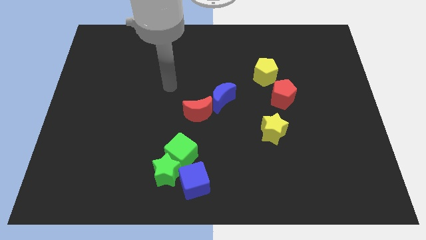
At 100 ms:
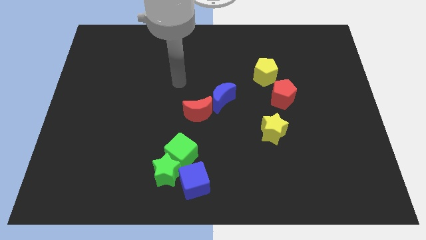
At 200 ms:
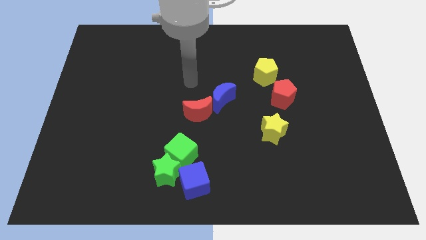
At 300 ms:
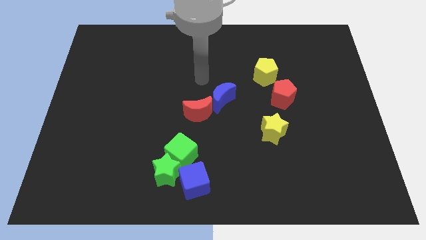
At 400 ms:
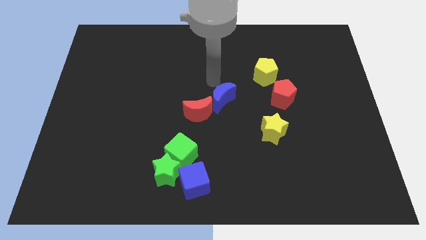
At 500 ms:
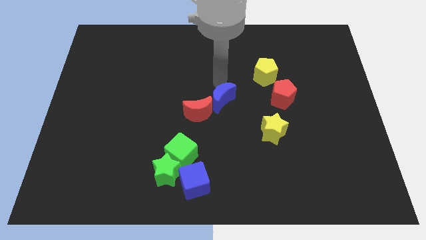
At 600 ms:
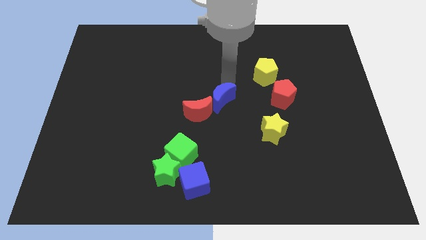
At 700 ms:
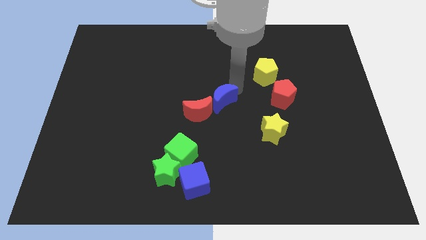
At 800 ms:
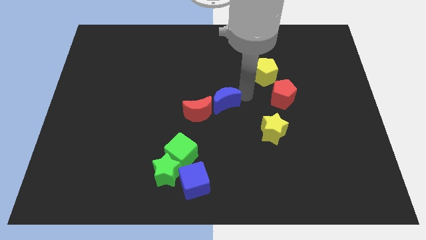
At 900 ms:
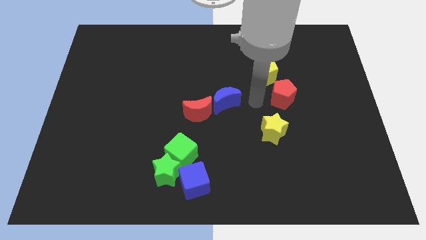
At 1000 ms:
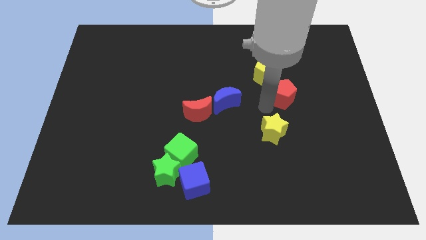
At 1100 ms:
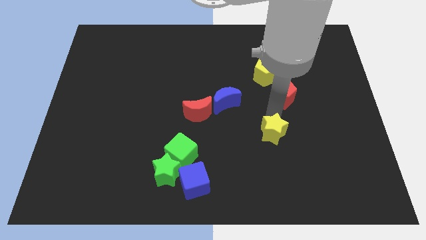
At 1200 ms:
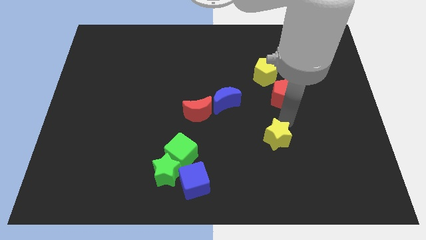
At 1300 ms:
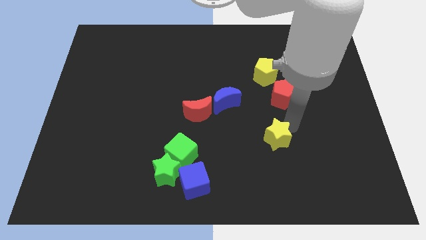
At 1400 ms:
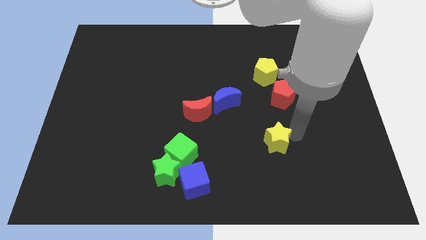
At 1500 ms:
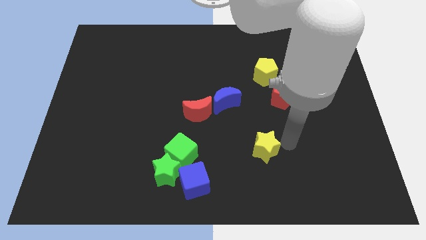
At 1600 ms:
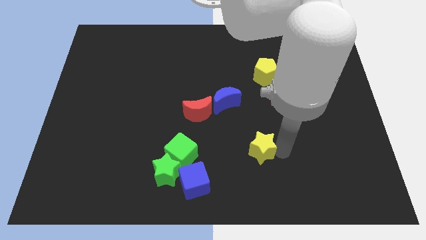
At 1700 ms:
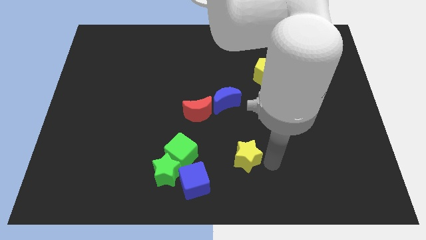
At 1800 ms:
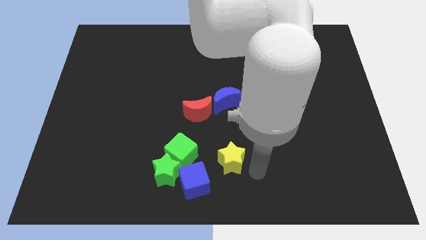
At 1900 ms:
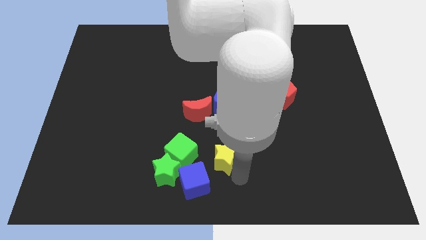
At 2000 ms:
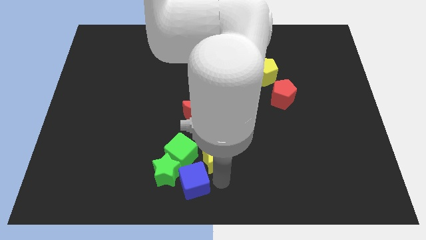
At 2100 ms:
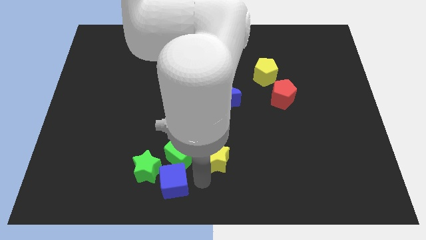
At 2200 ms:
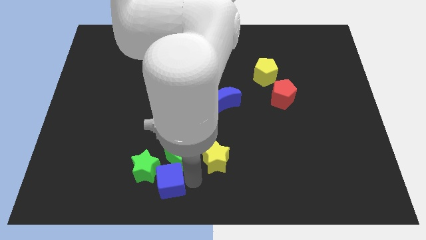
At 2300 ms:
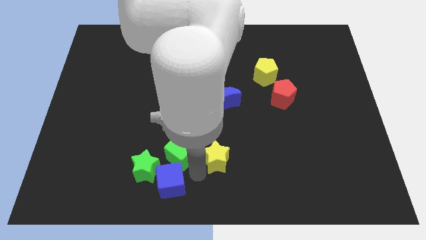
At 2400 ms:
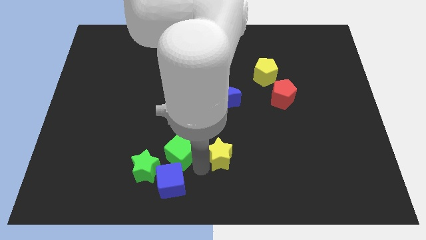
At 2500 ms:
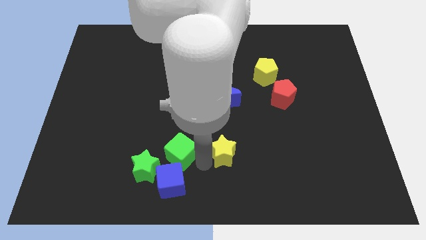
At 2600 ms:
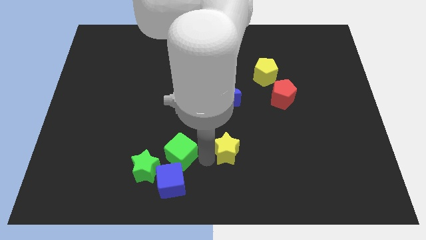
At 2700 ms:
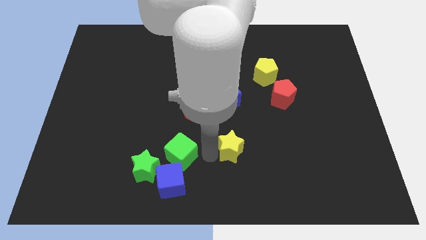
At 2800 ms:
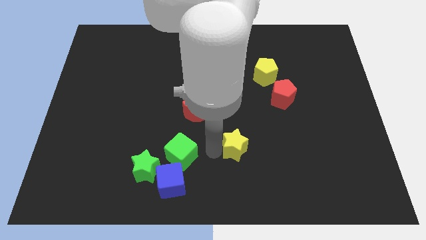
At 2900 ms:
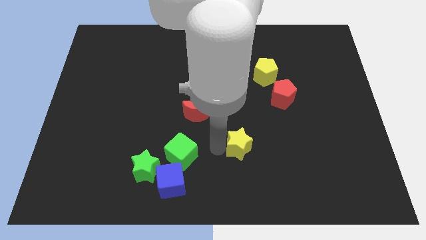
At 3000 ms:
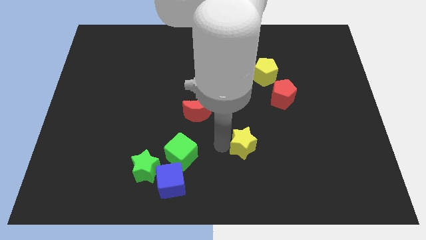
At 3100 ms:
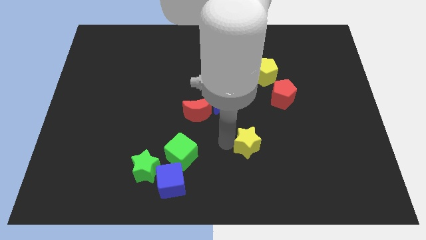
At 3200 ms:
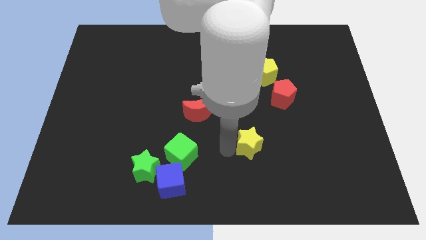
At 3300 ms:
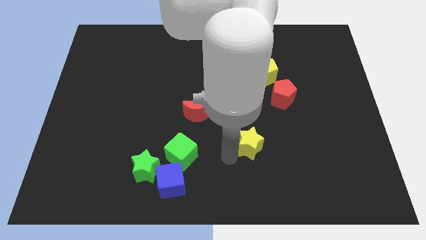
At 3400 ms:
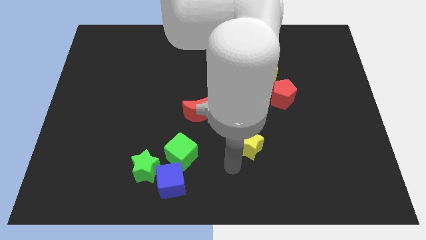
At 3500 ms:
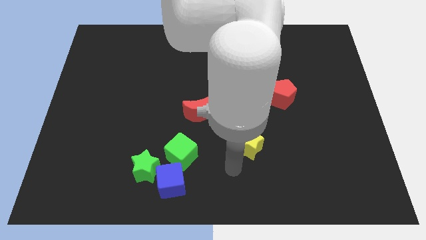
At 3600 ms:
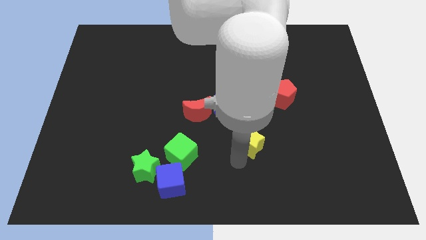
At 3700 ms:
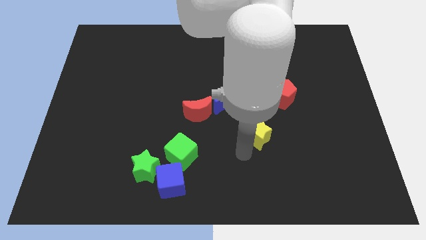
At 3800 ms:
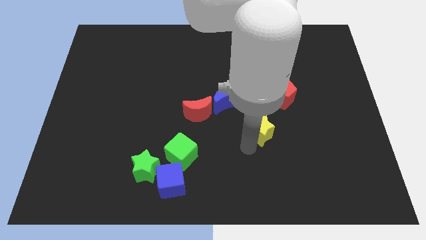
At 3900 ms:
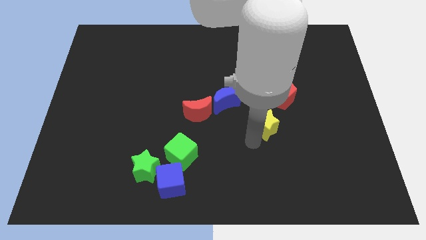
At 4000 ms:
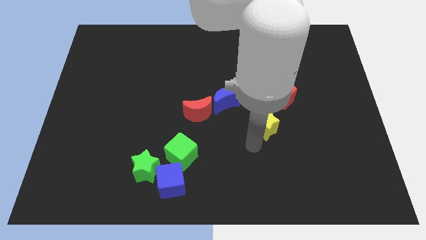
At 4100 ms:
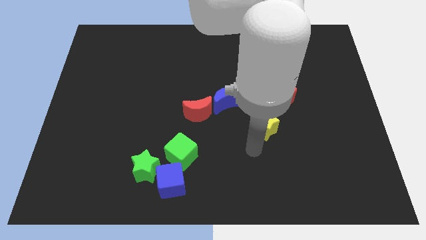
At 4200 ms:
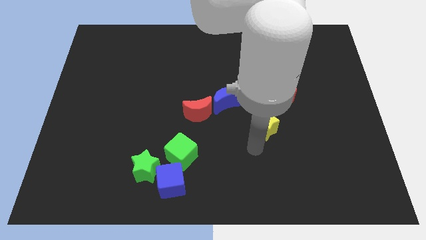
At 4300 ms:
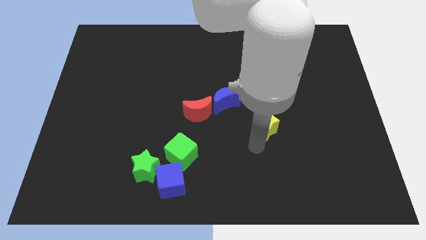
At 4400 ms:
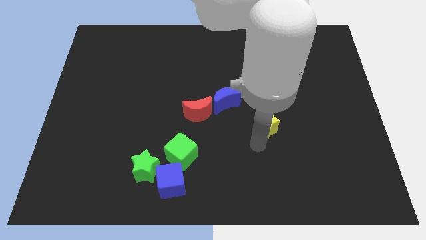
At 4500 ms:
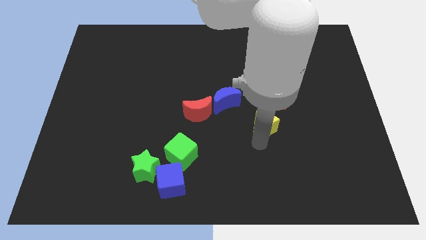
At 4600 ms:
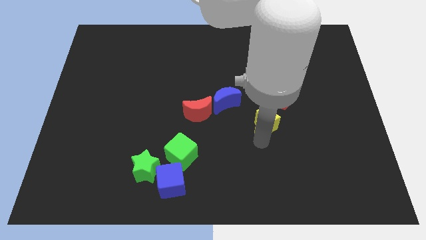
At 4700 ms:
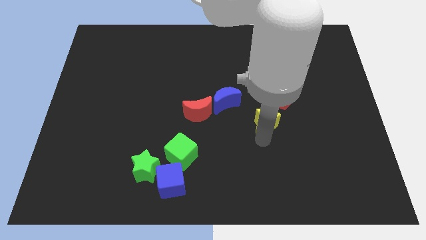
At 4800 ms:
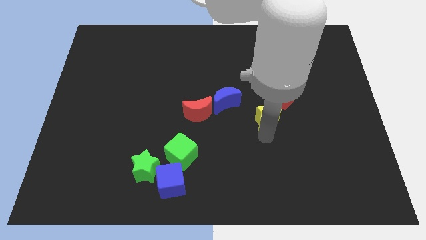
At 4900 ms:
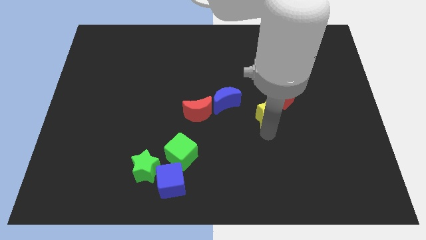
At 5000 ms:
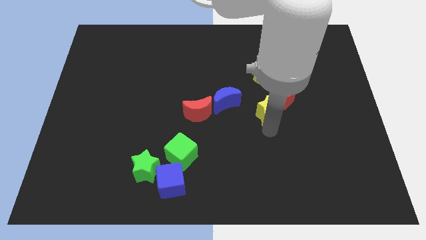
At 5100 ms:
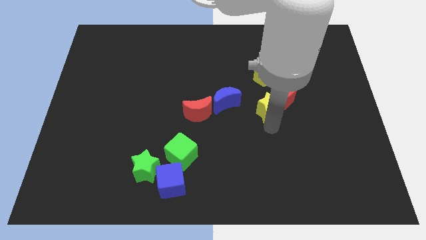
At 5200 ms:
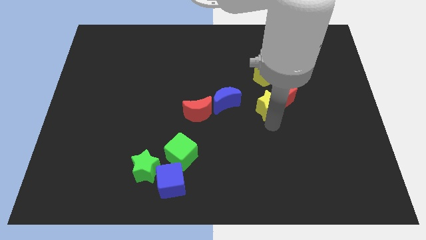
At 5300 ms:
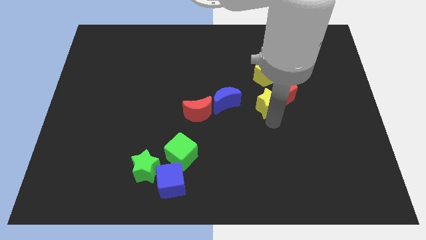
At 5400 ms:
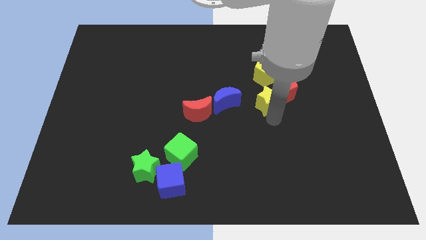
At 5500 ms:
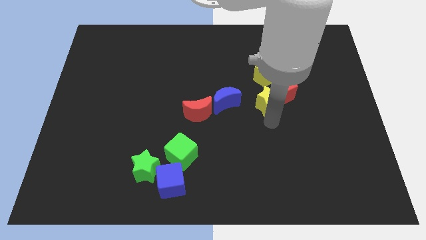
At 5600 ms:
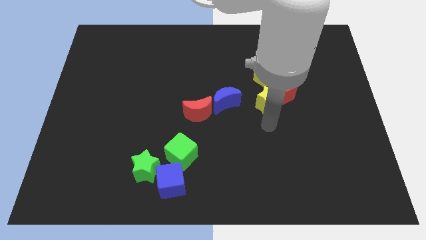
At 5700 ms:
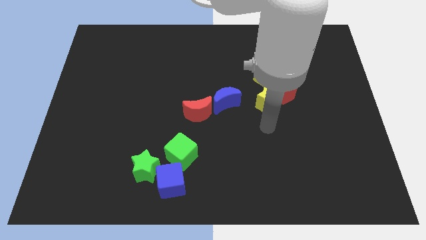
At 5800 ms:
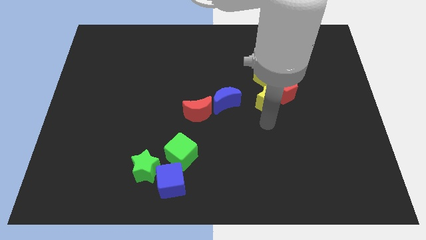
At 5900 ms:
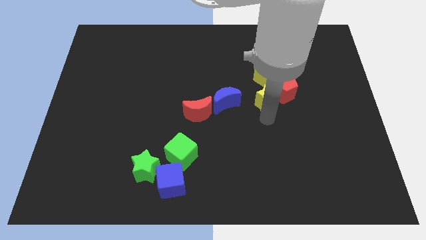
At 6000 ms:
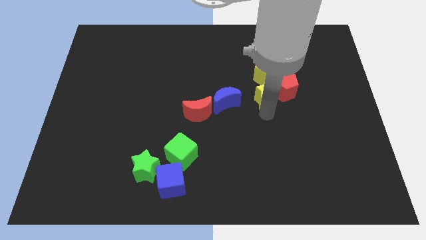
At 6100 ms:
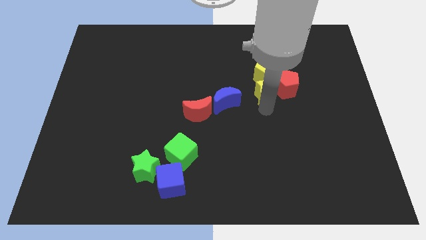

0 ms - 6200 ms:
slide the yellow star next to the yellow pentagon

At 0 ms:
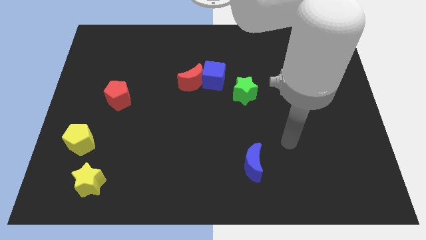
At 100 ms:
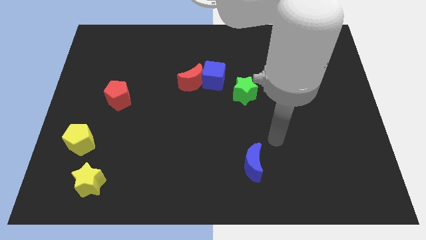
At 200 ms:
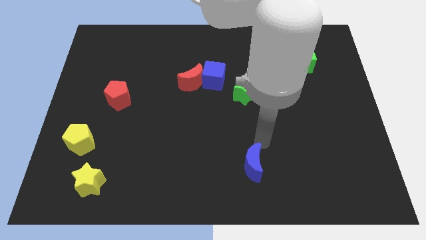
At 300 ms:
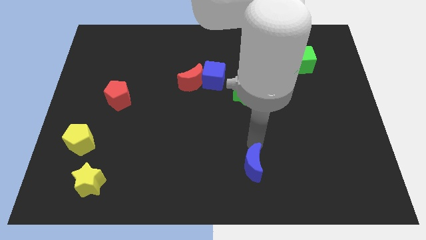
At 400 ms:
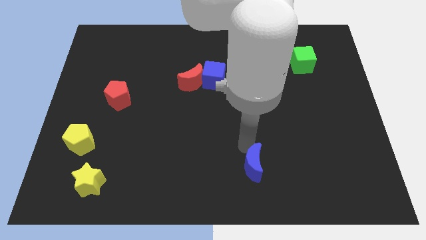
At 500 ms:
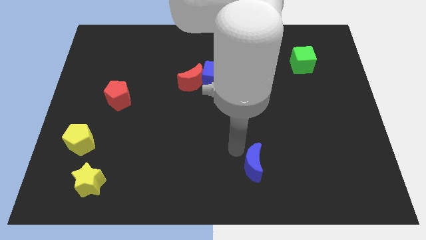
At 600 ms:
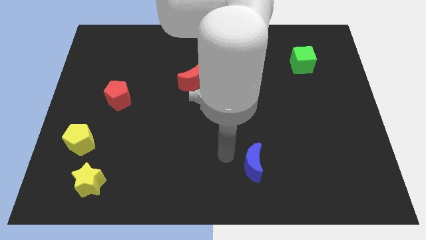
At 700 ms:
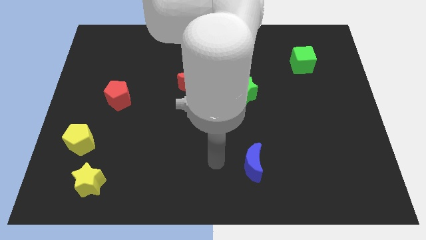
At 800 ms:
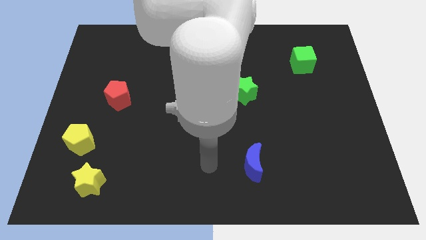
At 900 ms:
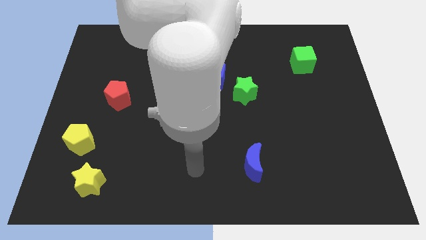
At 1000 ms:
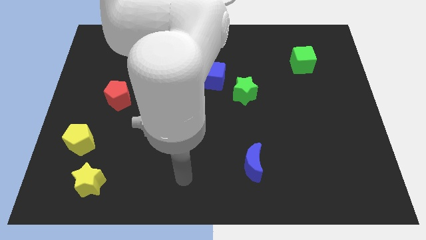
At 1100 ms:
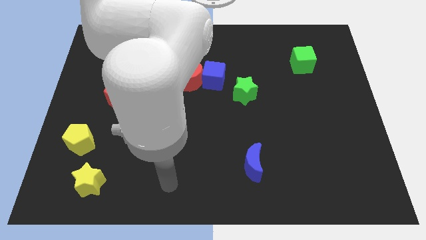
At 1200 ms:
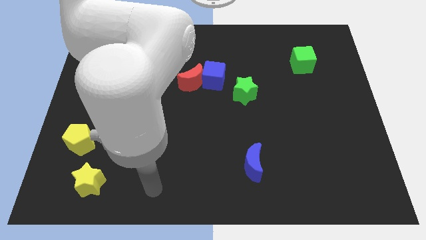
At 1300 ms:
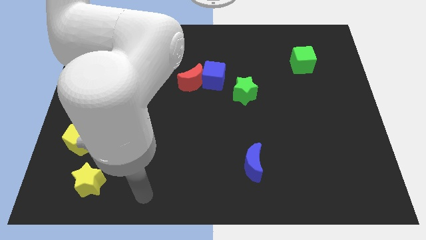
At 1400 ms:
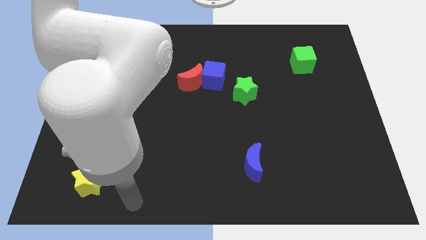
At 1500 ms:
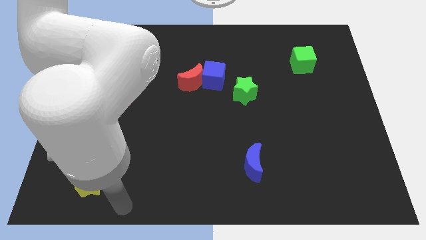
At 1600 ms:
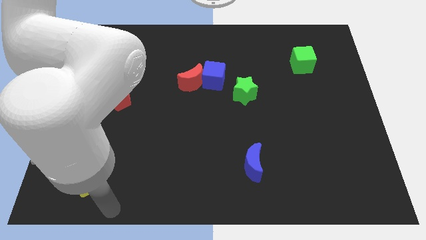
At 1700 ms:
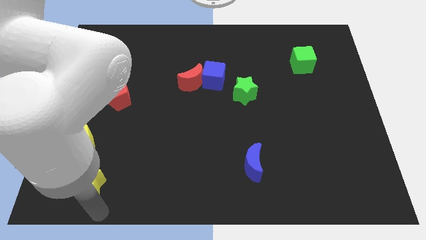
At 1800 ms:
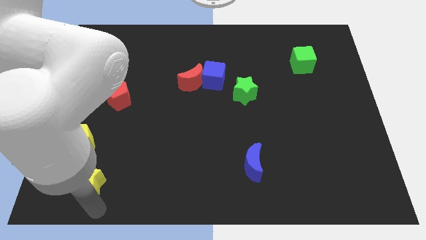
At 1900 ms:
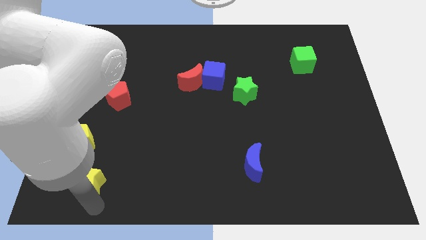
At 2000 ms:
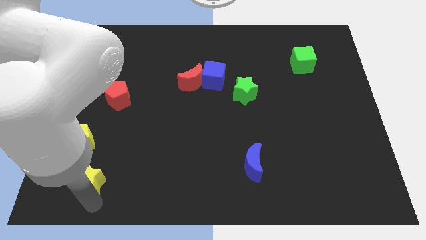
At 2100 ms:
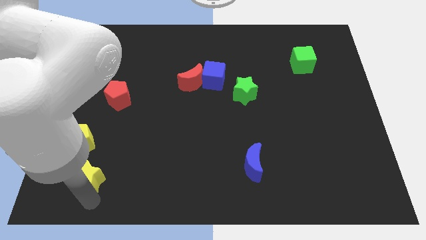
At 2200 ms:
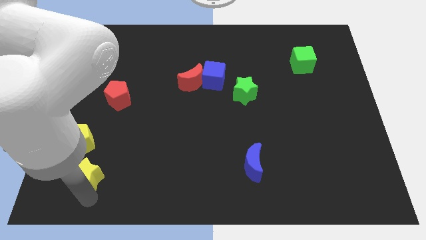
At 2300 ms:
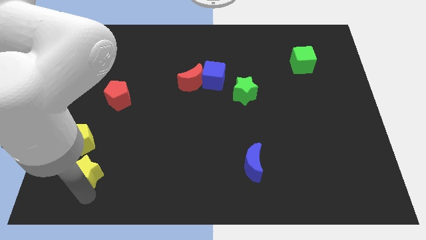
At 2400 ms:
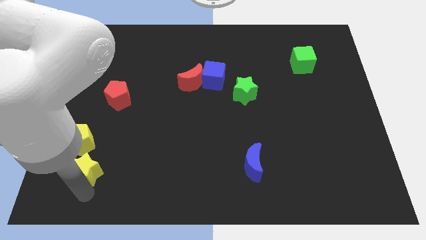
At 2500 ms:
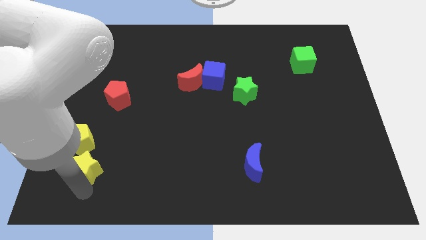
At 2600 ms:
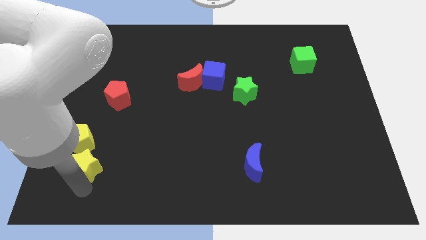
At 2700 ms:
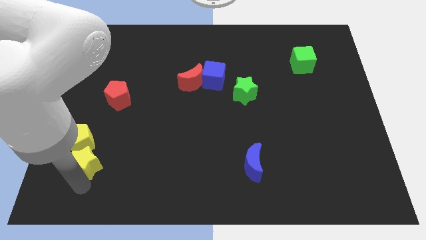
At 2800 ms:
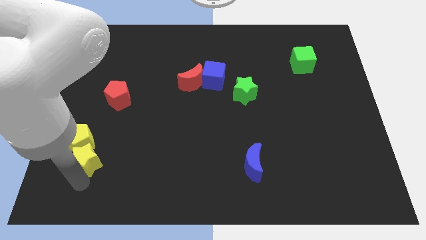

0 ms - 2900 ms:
put the yellow star to the yellow pentagon
